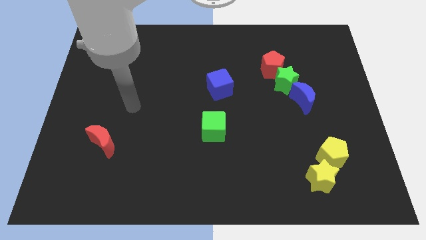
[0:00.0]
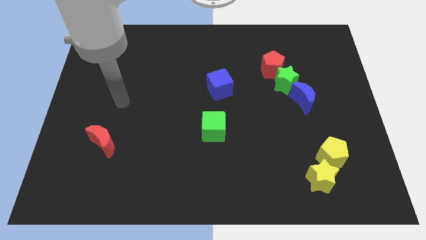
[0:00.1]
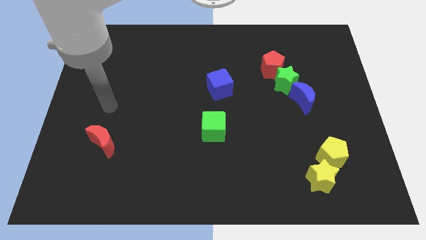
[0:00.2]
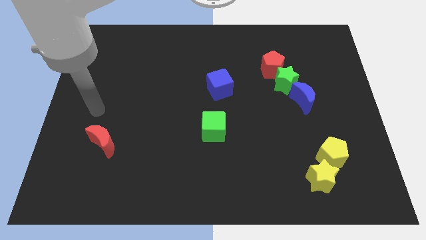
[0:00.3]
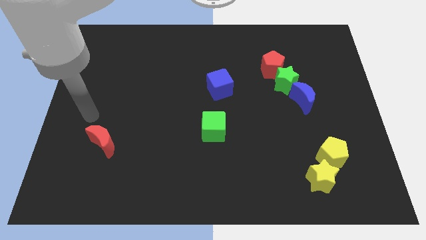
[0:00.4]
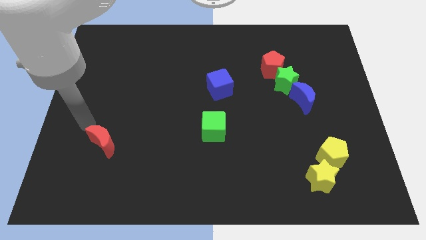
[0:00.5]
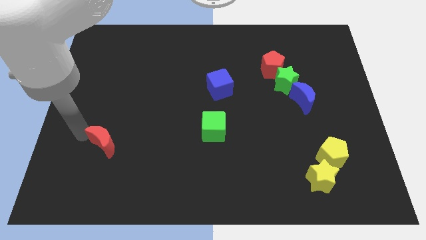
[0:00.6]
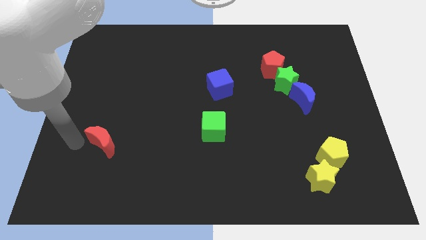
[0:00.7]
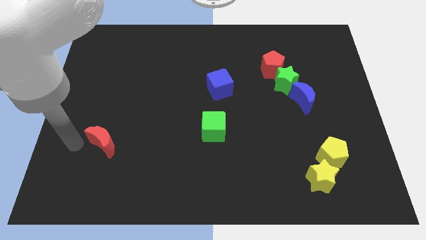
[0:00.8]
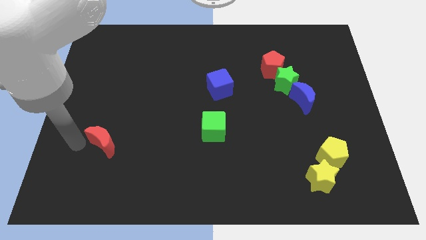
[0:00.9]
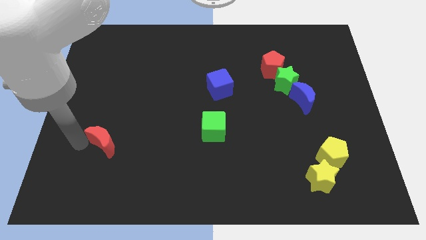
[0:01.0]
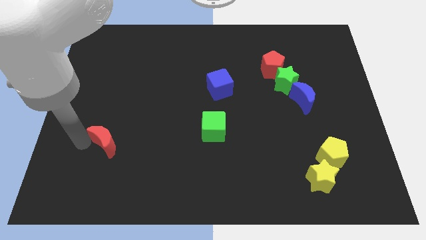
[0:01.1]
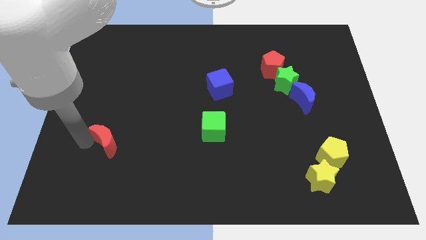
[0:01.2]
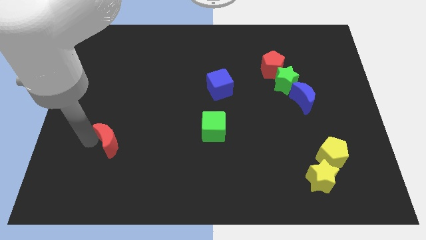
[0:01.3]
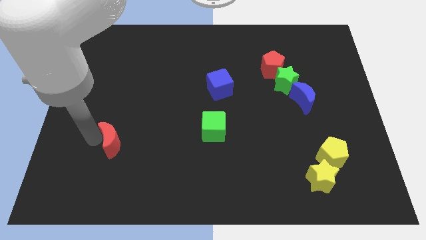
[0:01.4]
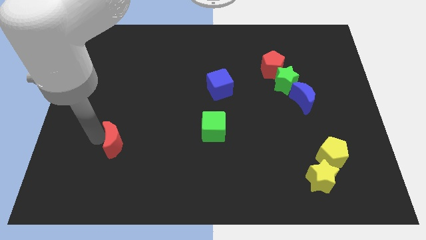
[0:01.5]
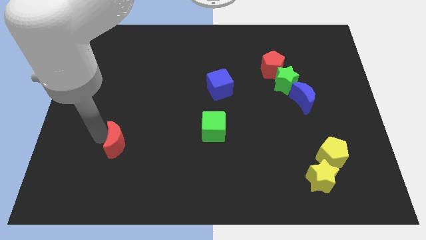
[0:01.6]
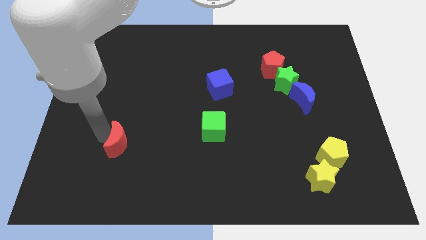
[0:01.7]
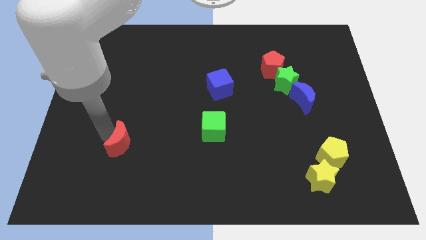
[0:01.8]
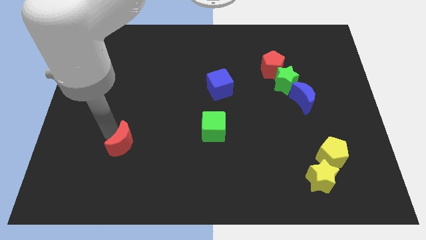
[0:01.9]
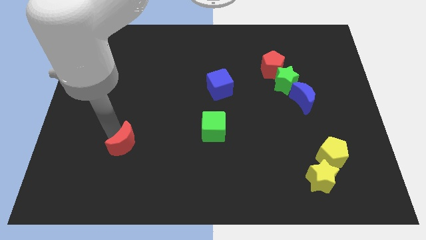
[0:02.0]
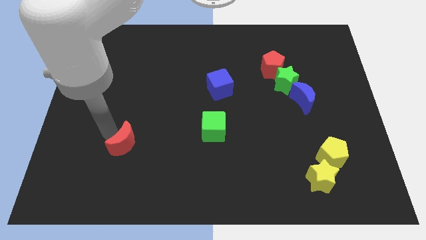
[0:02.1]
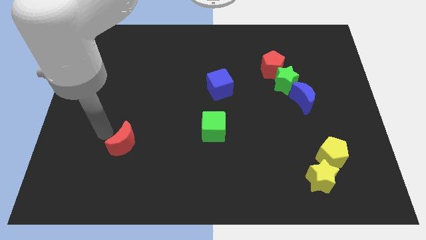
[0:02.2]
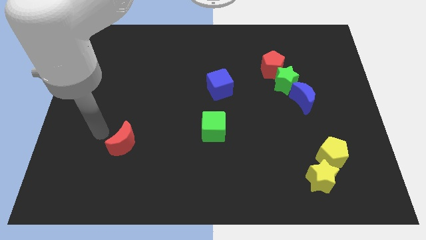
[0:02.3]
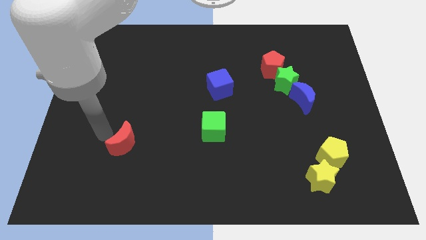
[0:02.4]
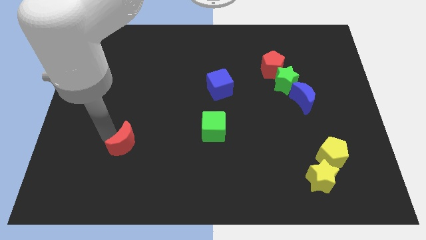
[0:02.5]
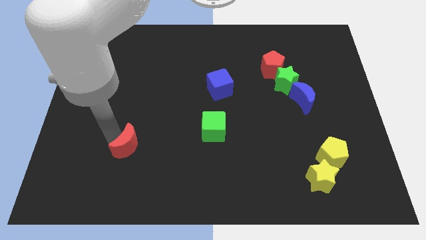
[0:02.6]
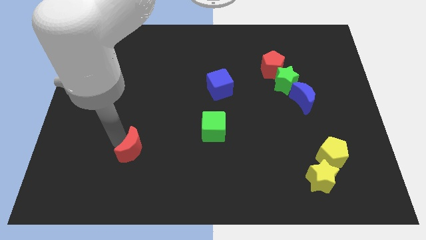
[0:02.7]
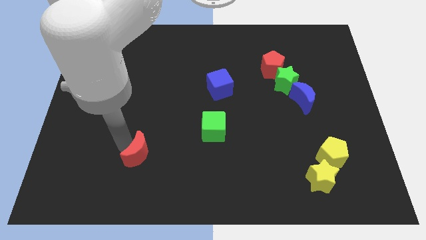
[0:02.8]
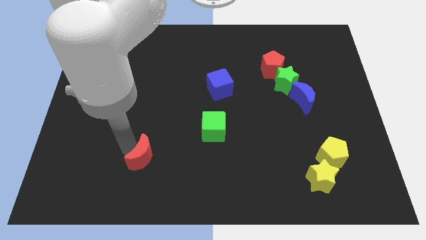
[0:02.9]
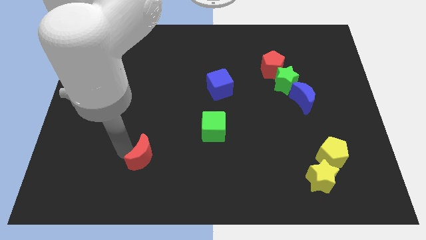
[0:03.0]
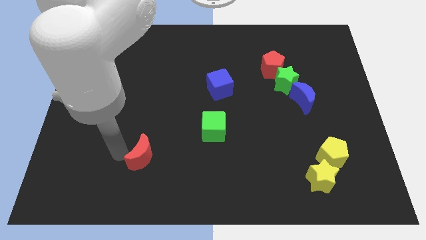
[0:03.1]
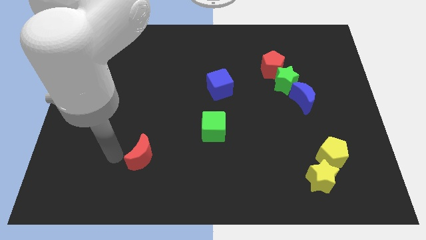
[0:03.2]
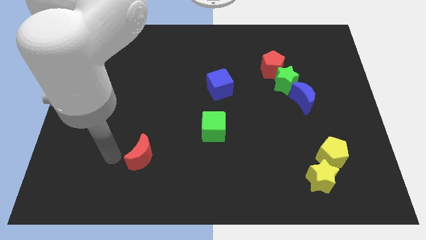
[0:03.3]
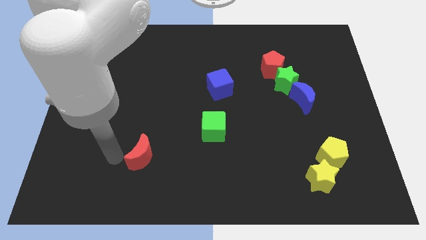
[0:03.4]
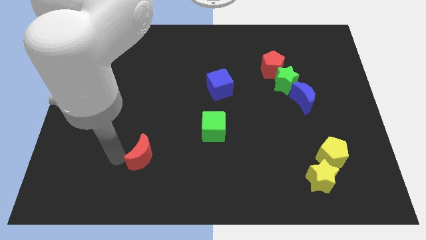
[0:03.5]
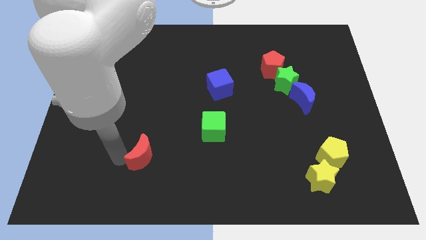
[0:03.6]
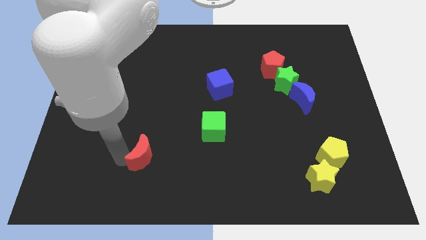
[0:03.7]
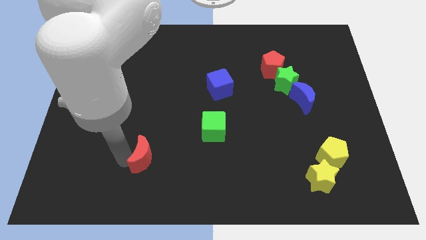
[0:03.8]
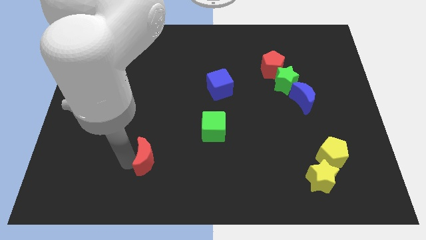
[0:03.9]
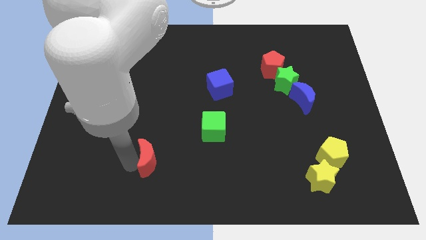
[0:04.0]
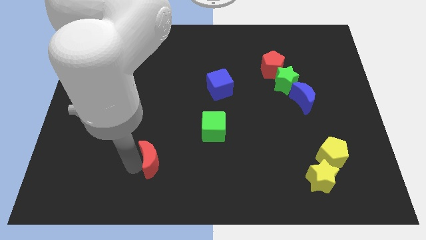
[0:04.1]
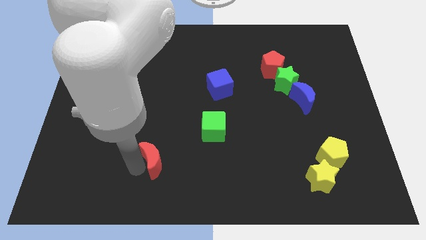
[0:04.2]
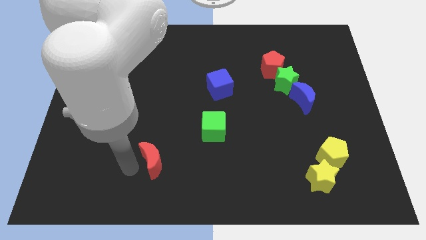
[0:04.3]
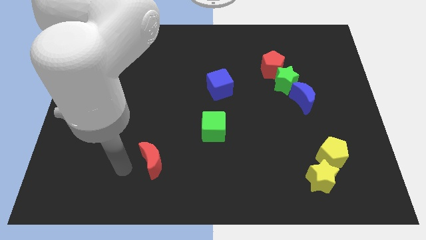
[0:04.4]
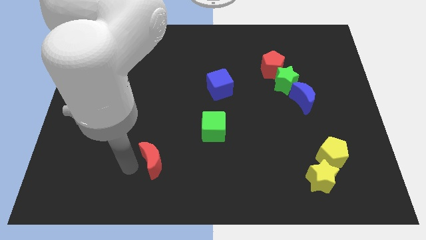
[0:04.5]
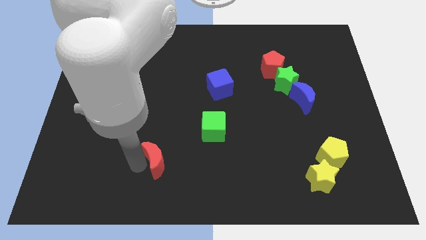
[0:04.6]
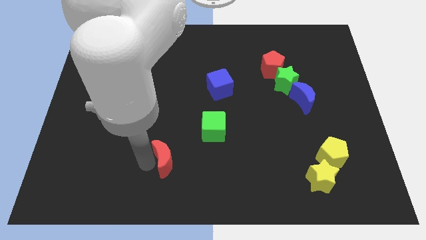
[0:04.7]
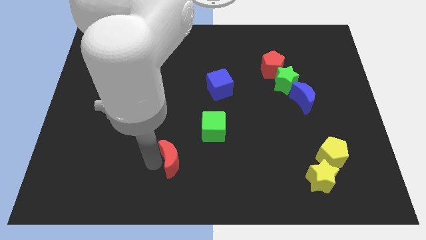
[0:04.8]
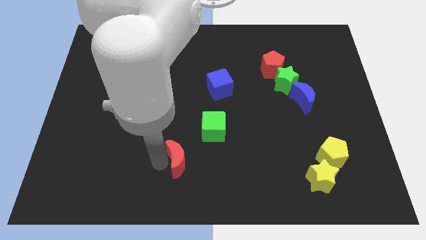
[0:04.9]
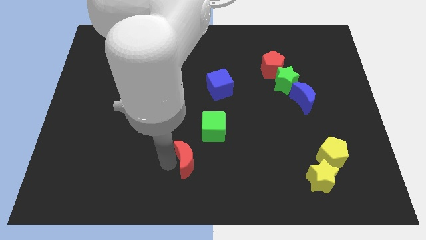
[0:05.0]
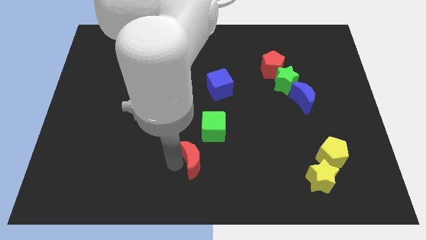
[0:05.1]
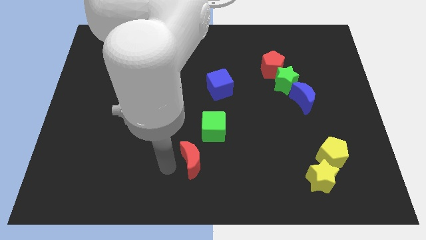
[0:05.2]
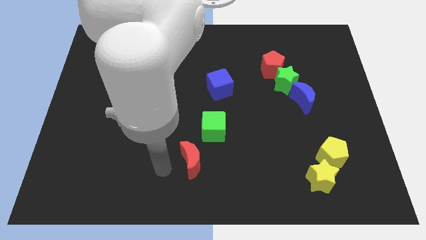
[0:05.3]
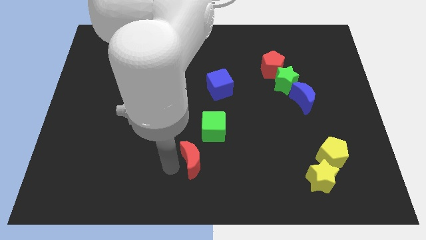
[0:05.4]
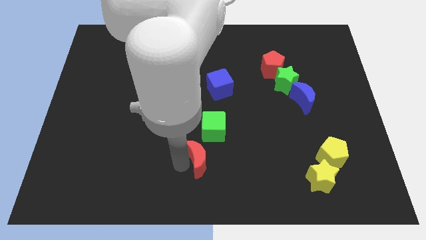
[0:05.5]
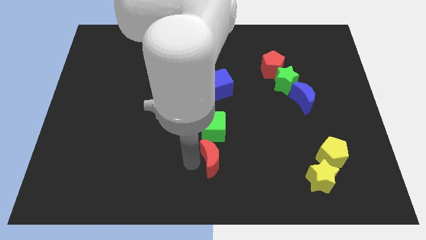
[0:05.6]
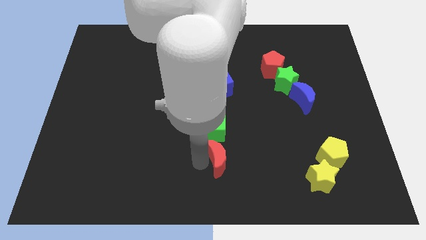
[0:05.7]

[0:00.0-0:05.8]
slide the red moon to the bottom right of the green cube

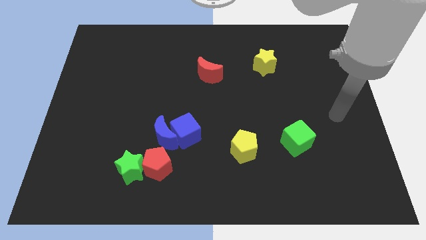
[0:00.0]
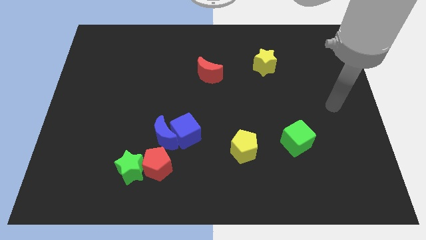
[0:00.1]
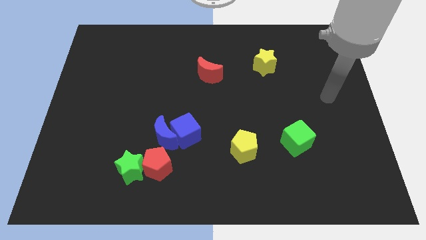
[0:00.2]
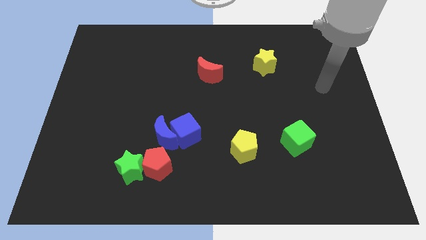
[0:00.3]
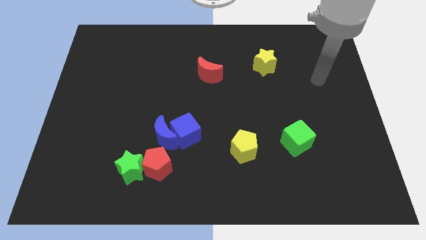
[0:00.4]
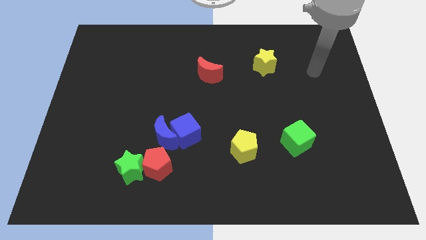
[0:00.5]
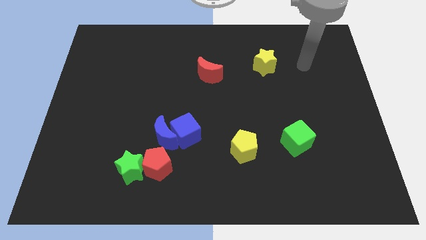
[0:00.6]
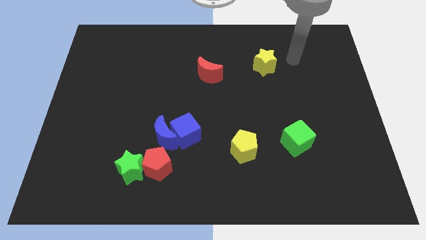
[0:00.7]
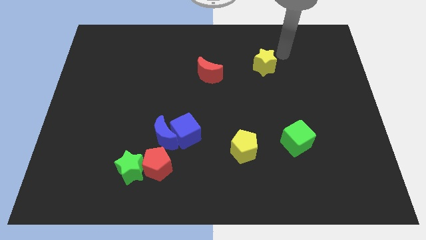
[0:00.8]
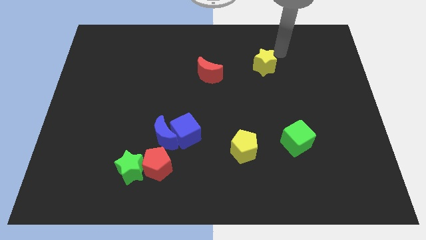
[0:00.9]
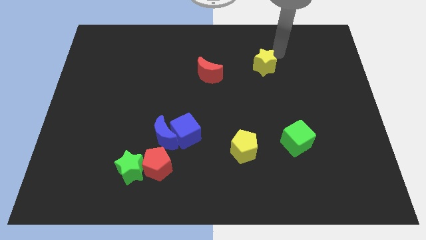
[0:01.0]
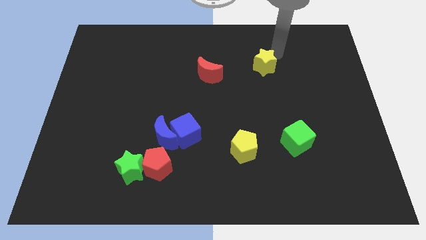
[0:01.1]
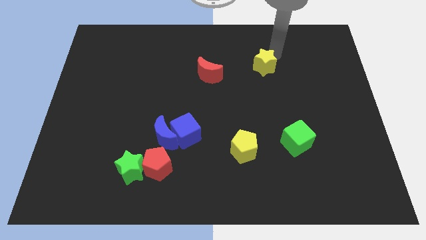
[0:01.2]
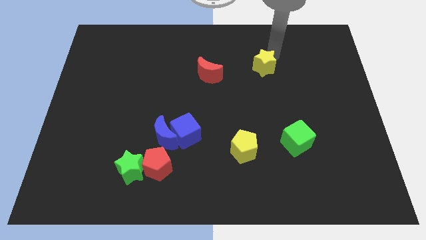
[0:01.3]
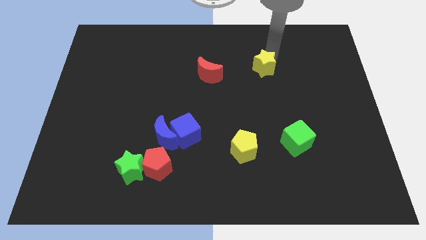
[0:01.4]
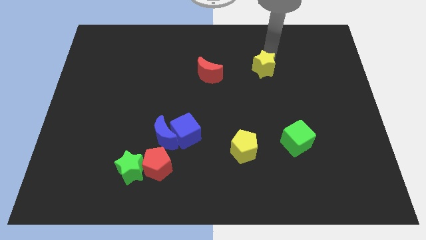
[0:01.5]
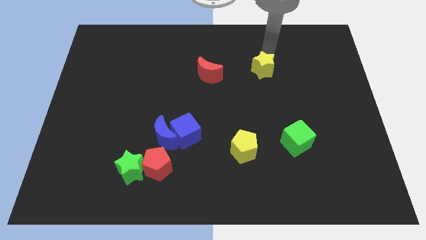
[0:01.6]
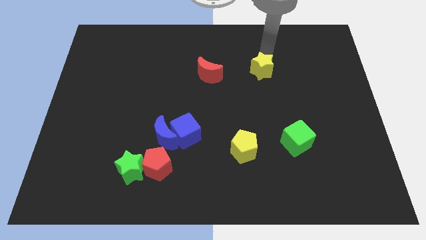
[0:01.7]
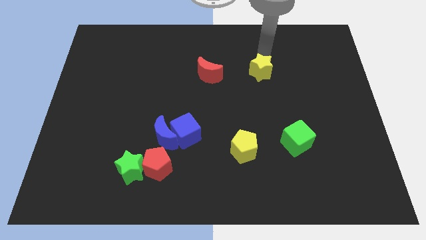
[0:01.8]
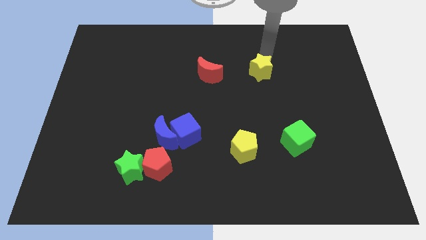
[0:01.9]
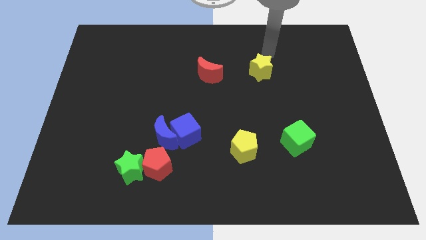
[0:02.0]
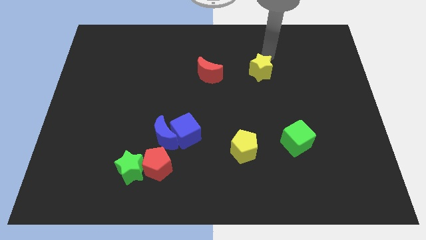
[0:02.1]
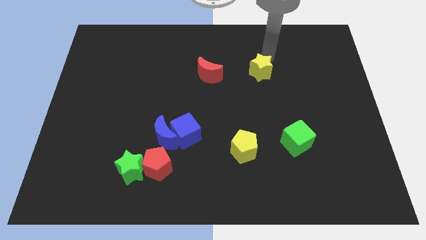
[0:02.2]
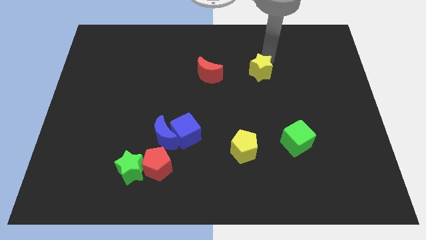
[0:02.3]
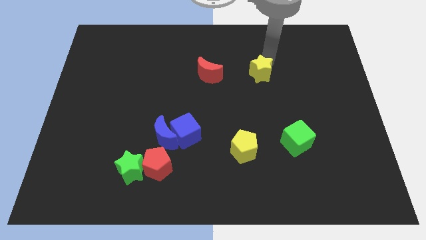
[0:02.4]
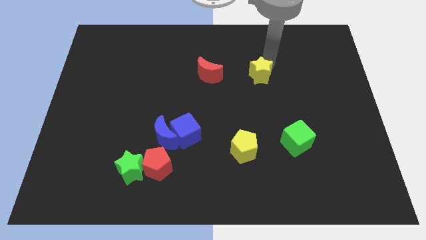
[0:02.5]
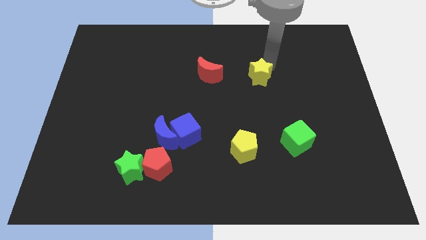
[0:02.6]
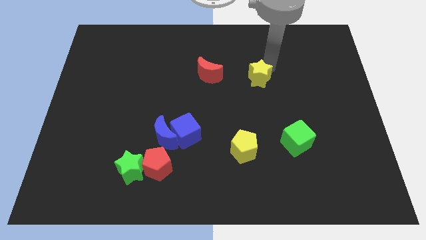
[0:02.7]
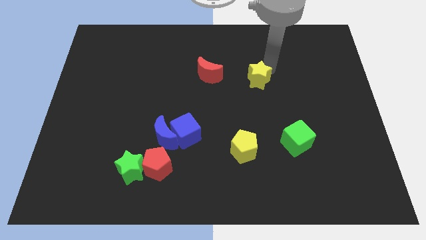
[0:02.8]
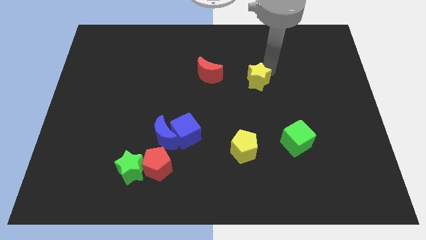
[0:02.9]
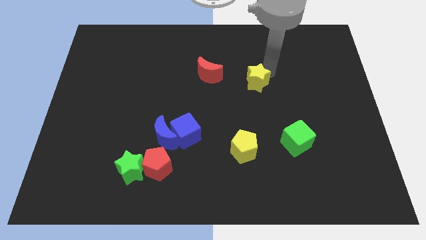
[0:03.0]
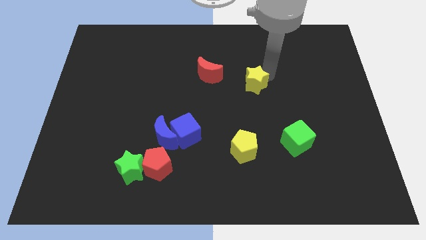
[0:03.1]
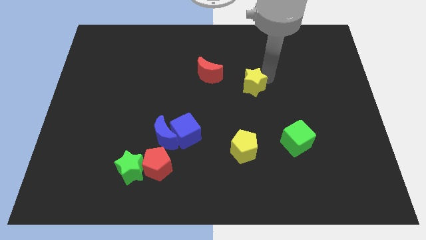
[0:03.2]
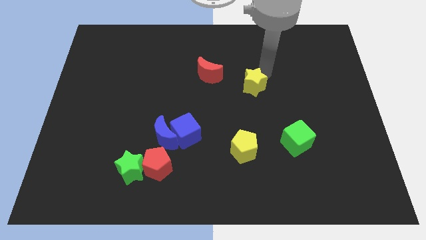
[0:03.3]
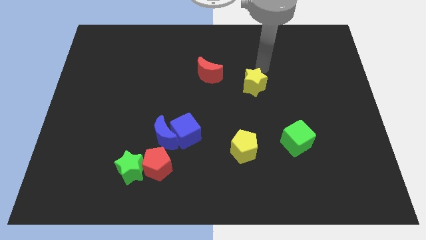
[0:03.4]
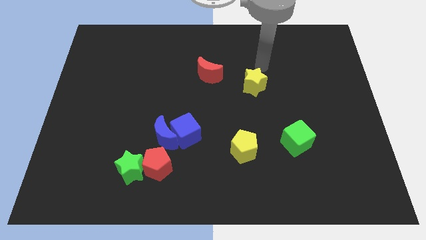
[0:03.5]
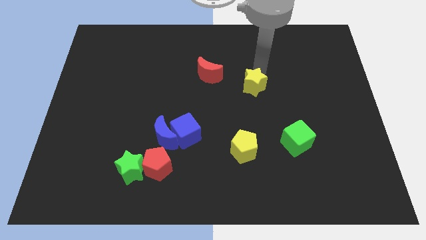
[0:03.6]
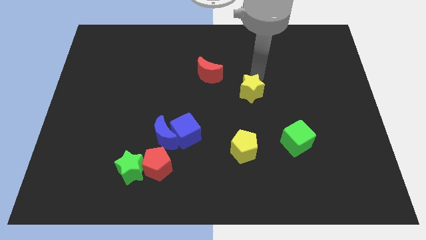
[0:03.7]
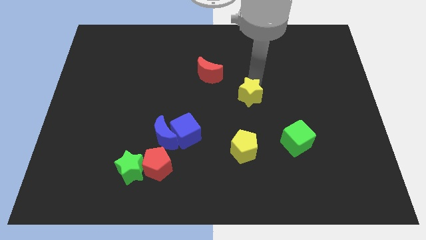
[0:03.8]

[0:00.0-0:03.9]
move the yellow star to the top side of the yellow pentagon
